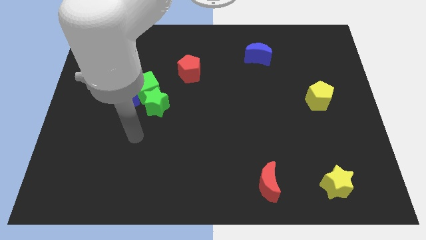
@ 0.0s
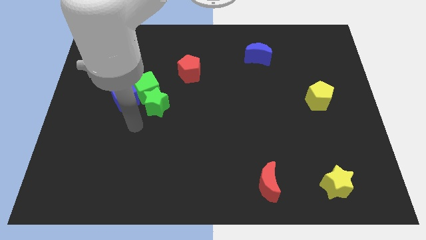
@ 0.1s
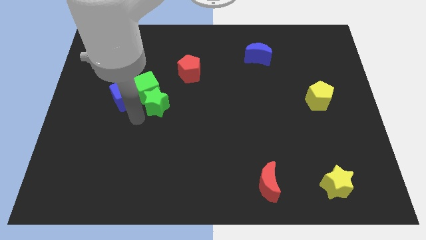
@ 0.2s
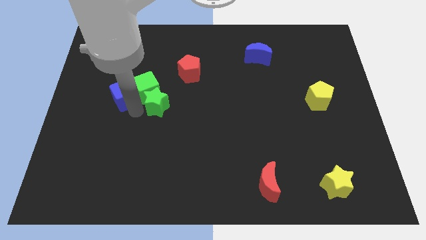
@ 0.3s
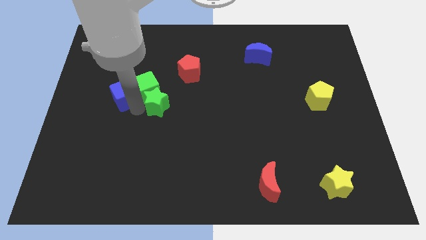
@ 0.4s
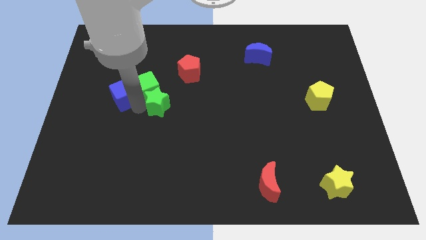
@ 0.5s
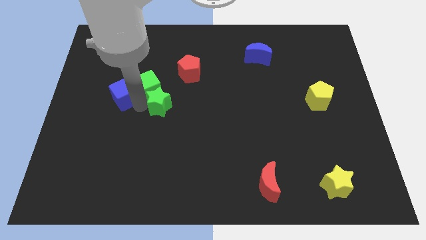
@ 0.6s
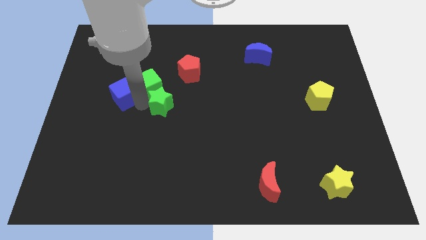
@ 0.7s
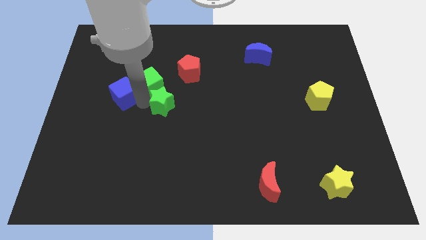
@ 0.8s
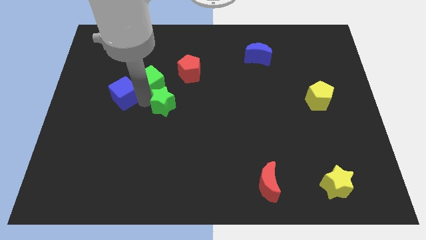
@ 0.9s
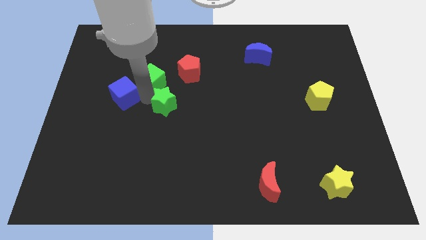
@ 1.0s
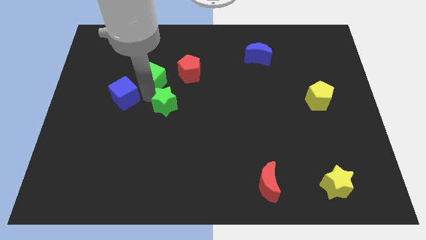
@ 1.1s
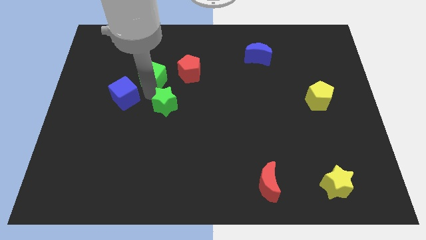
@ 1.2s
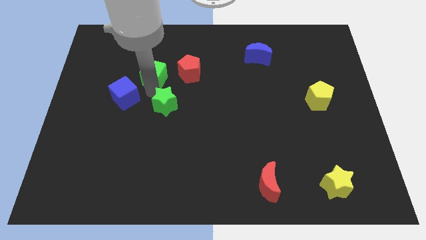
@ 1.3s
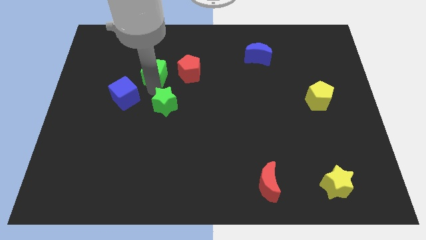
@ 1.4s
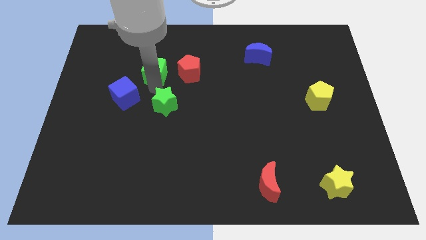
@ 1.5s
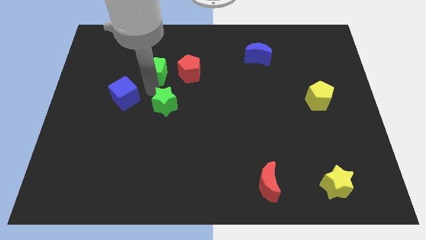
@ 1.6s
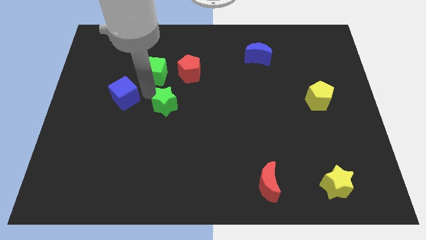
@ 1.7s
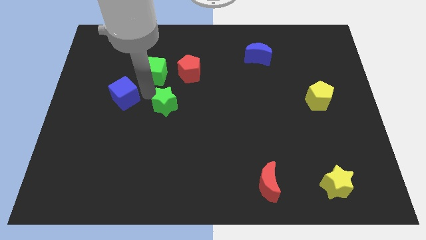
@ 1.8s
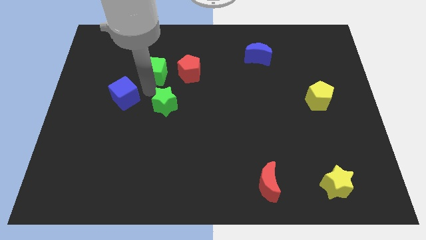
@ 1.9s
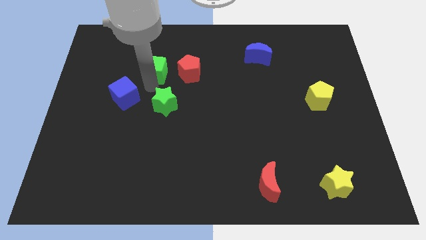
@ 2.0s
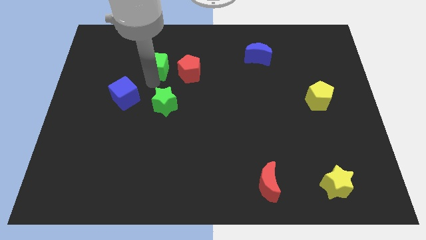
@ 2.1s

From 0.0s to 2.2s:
separate the green cube from the green star and blue cube

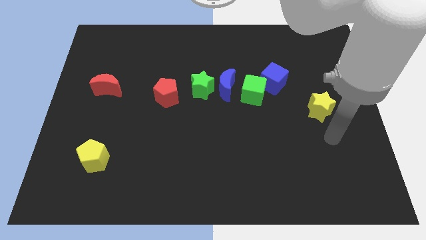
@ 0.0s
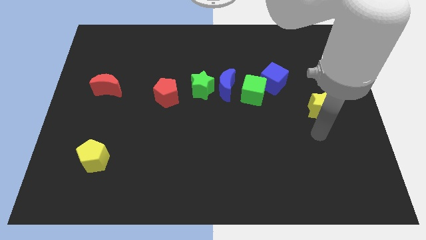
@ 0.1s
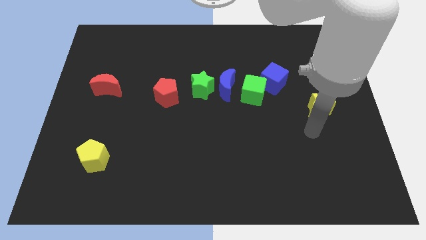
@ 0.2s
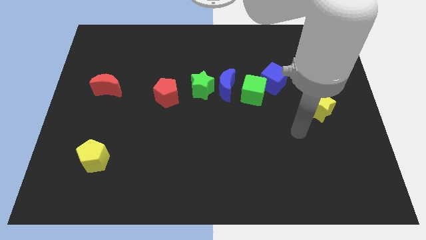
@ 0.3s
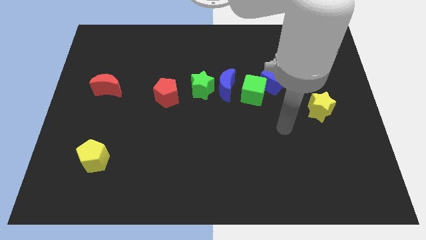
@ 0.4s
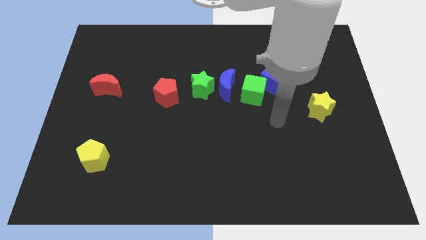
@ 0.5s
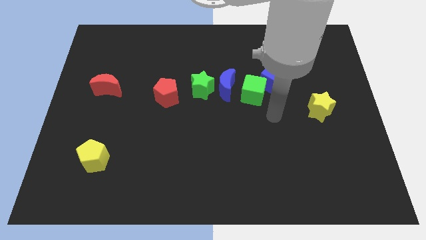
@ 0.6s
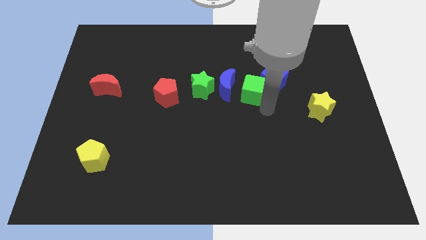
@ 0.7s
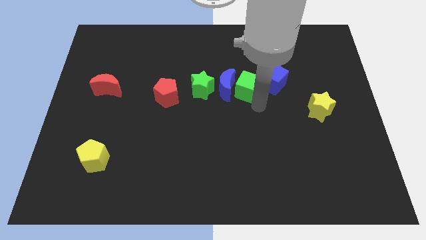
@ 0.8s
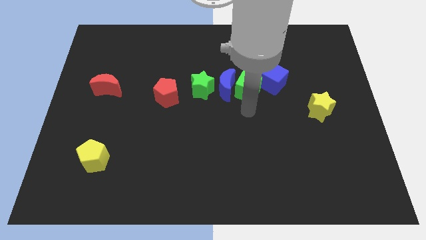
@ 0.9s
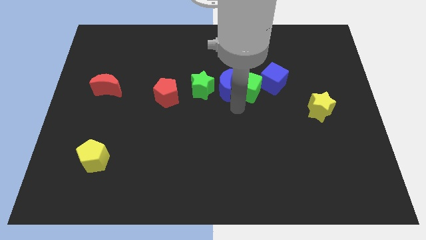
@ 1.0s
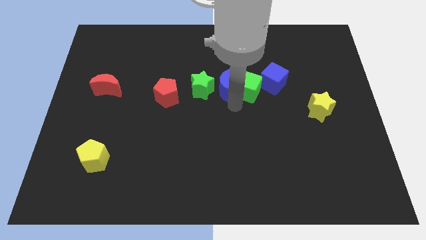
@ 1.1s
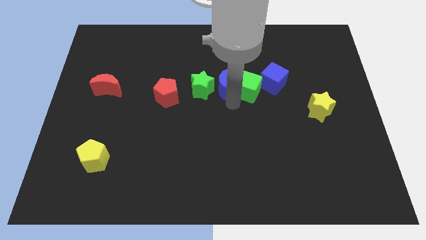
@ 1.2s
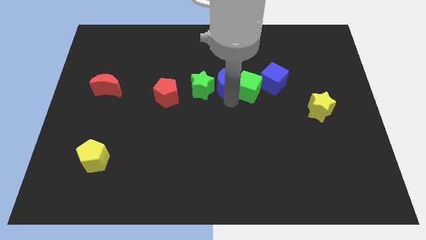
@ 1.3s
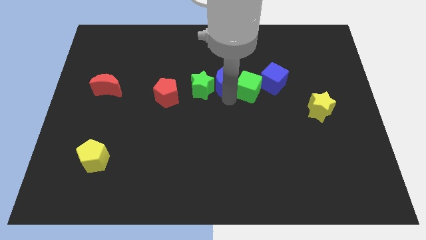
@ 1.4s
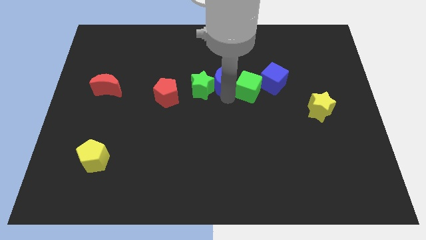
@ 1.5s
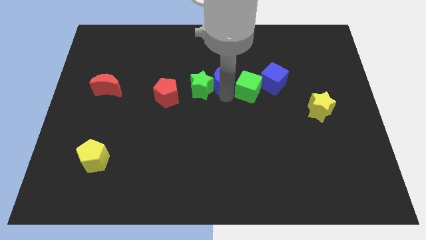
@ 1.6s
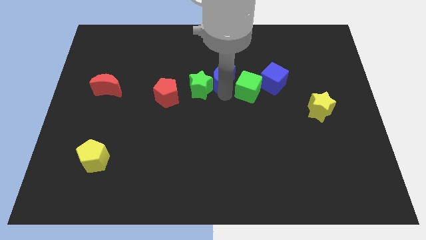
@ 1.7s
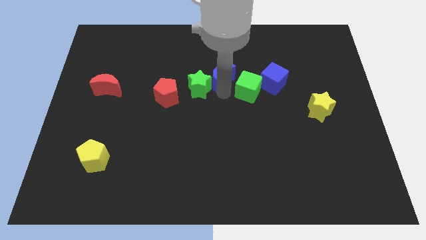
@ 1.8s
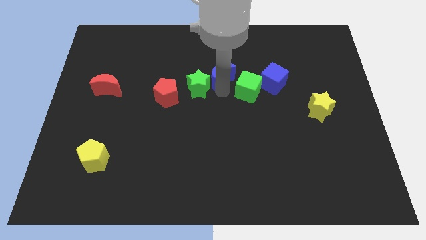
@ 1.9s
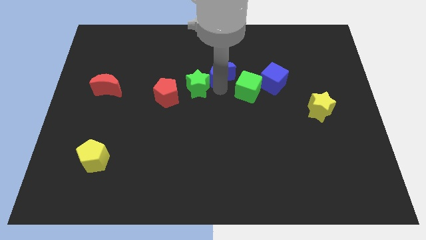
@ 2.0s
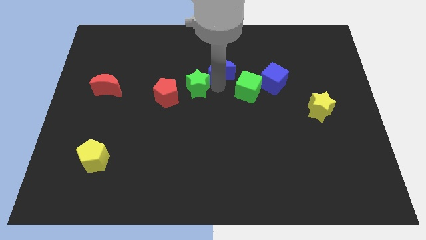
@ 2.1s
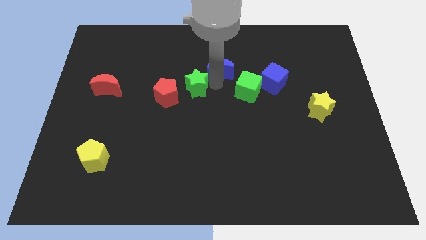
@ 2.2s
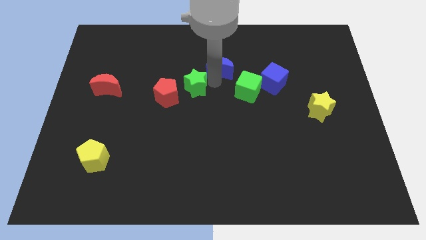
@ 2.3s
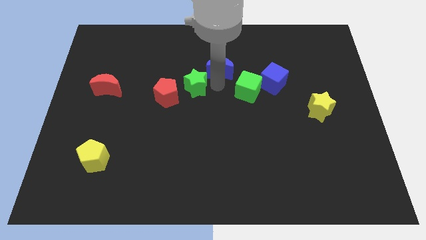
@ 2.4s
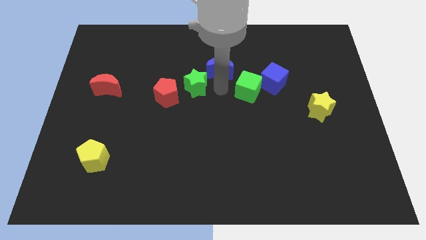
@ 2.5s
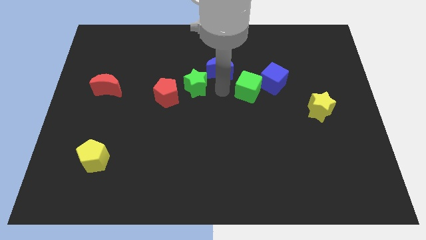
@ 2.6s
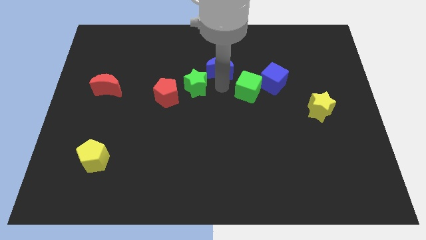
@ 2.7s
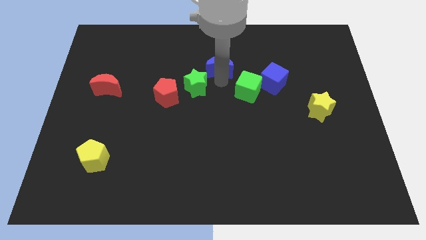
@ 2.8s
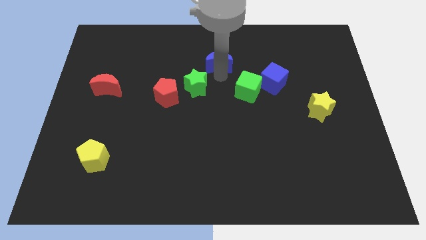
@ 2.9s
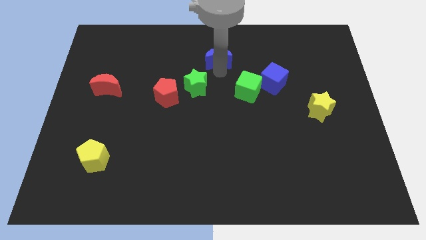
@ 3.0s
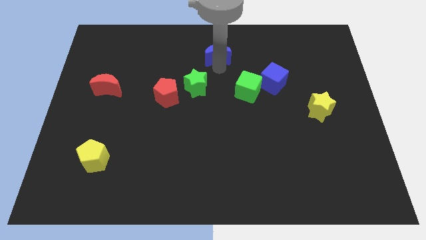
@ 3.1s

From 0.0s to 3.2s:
separate the blue moon from the green star and green cube

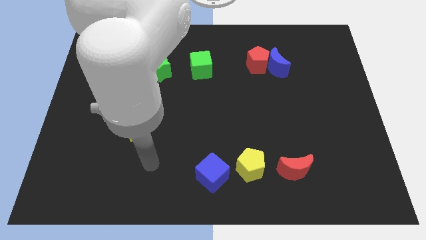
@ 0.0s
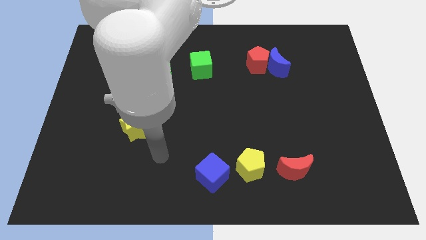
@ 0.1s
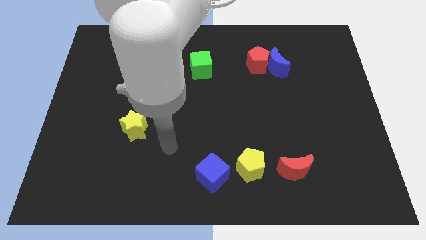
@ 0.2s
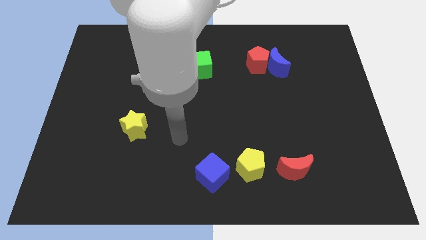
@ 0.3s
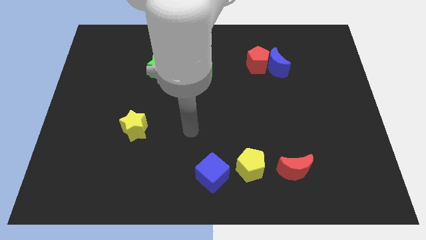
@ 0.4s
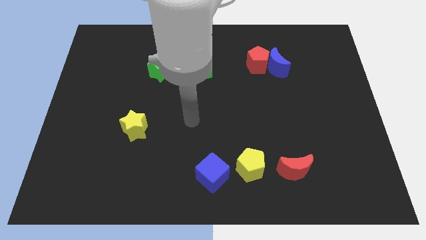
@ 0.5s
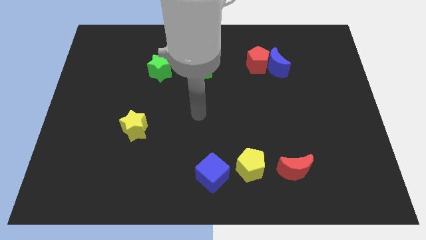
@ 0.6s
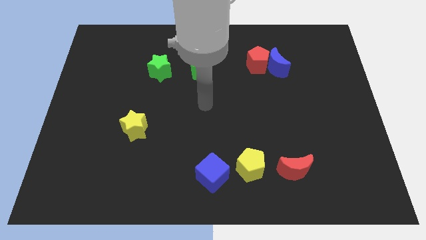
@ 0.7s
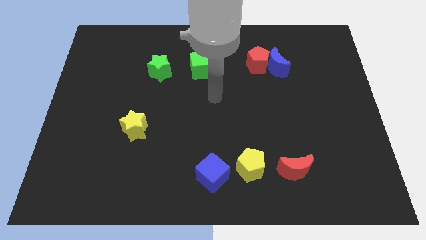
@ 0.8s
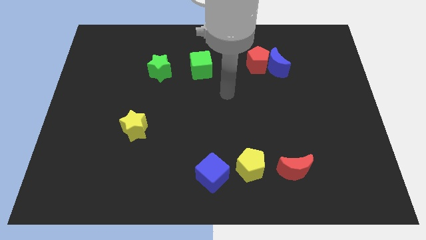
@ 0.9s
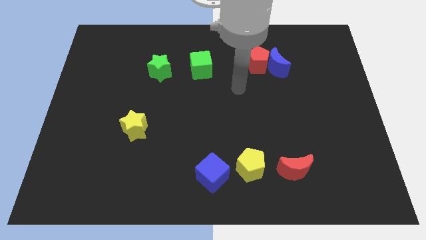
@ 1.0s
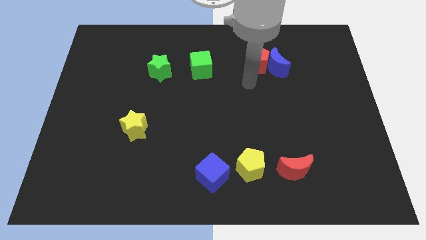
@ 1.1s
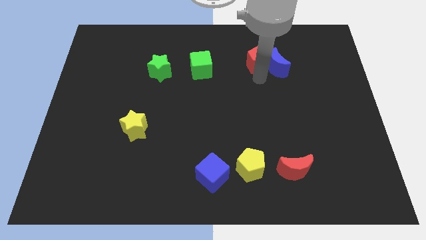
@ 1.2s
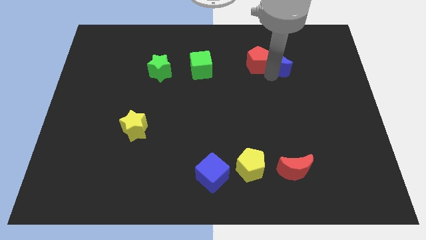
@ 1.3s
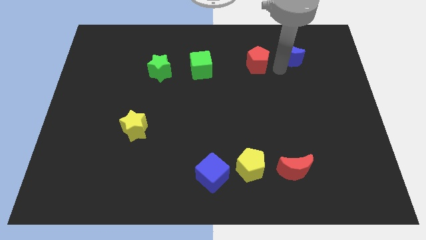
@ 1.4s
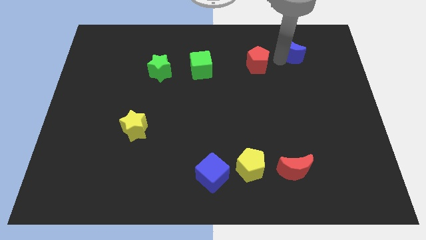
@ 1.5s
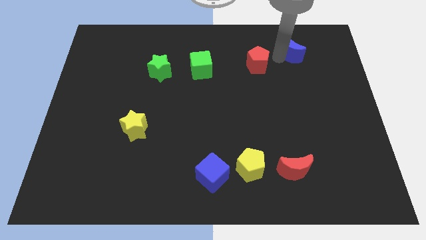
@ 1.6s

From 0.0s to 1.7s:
separate the red pentagon from the blue moon

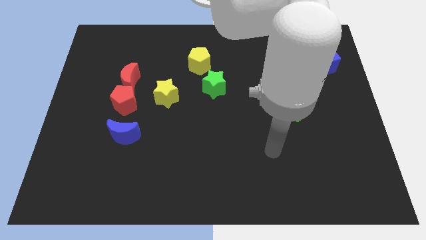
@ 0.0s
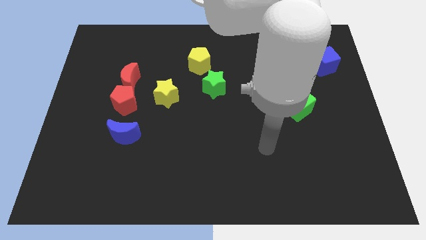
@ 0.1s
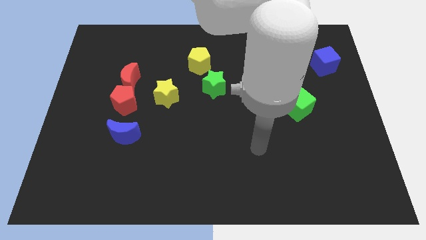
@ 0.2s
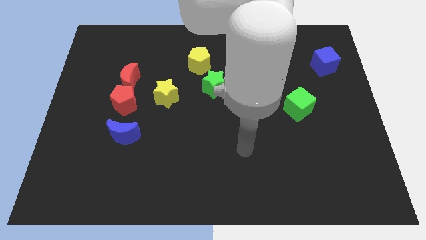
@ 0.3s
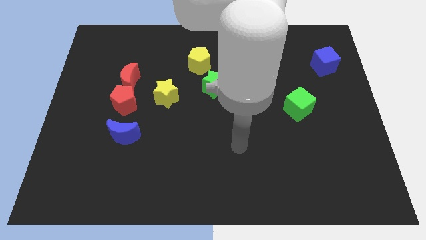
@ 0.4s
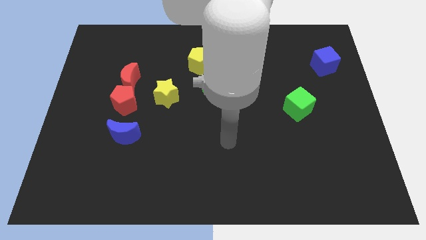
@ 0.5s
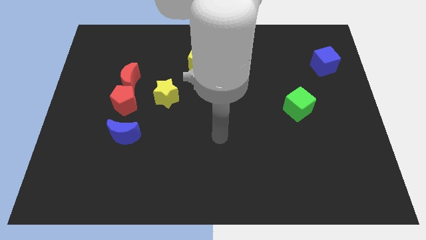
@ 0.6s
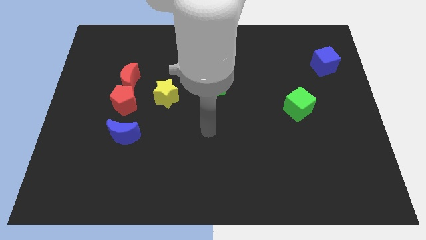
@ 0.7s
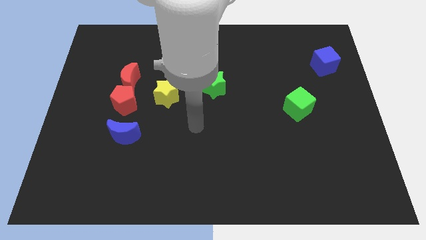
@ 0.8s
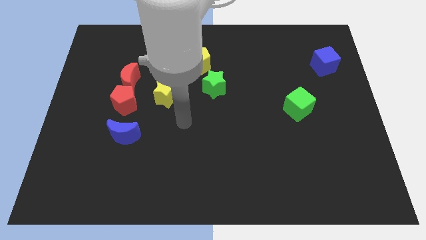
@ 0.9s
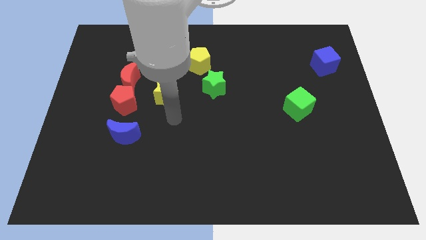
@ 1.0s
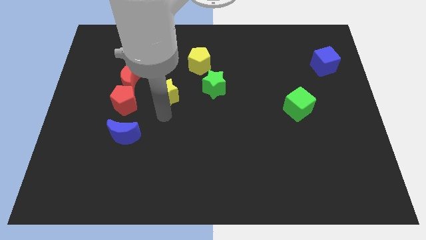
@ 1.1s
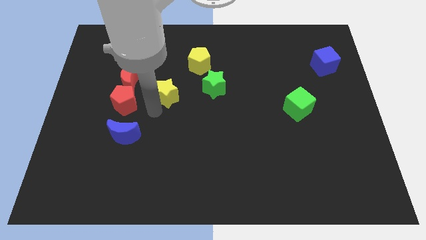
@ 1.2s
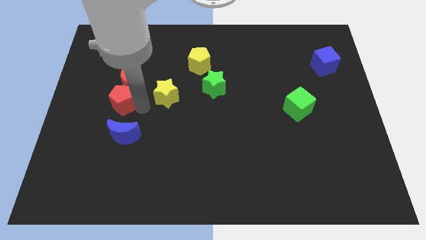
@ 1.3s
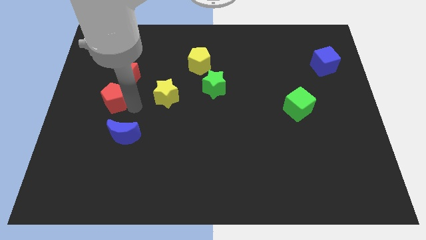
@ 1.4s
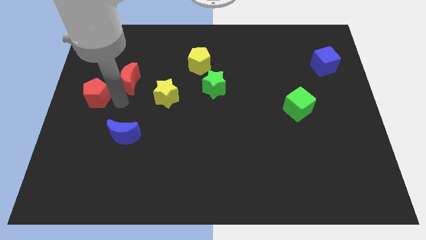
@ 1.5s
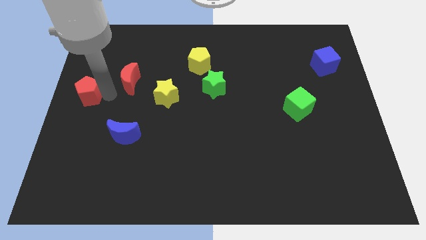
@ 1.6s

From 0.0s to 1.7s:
pull the red moon apart from the red pentagon

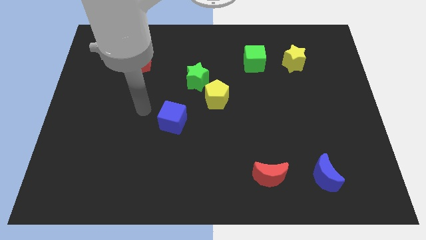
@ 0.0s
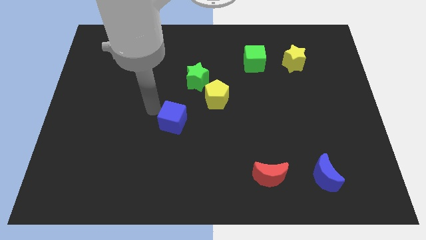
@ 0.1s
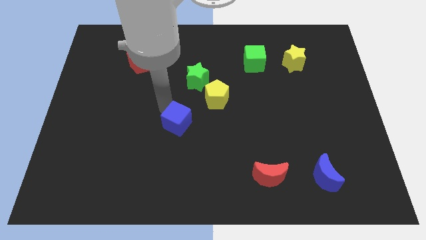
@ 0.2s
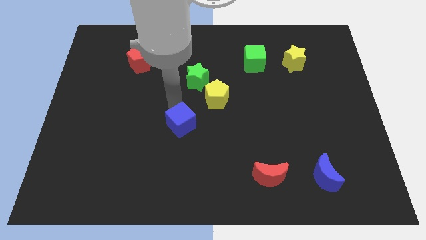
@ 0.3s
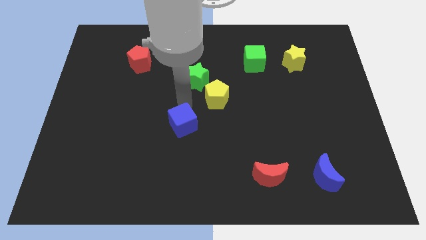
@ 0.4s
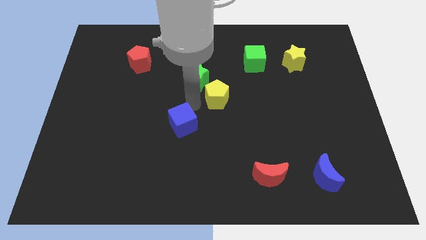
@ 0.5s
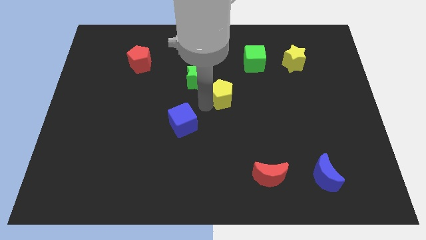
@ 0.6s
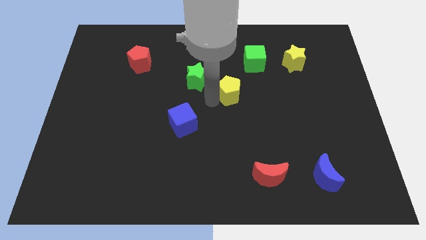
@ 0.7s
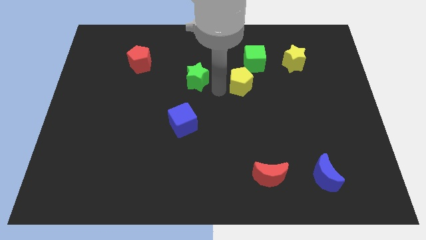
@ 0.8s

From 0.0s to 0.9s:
separate the green star from the yellow pentagon
